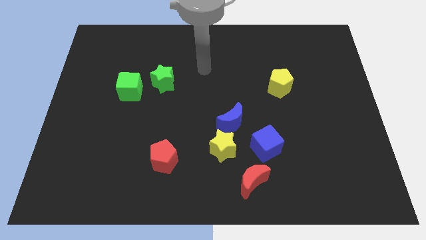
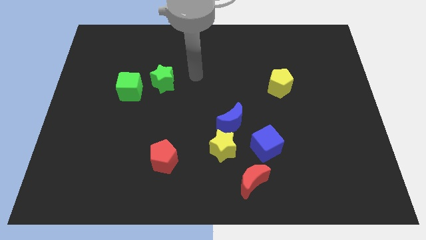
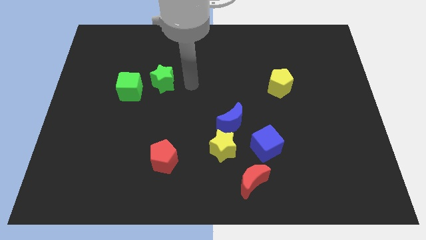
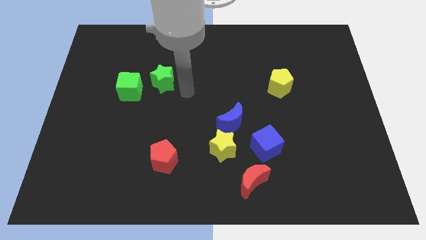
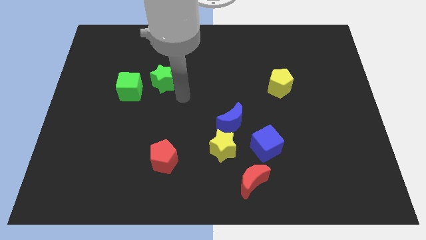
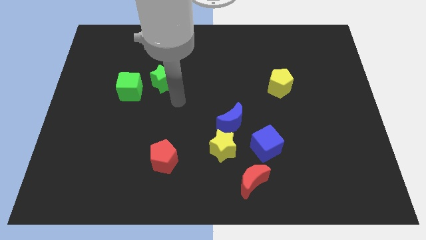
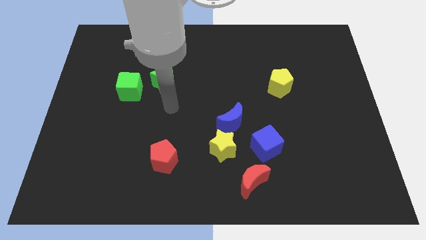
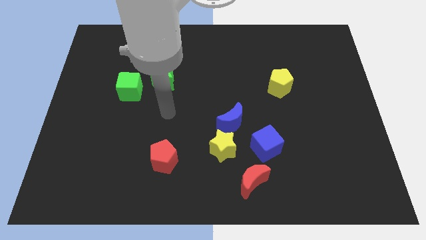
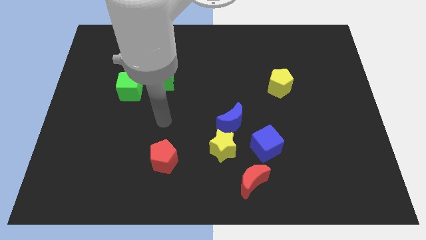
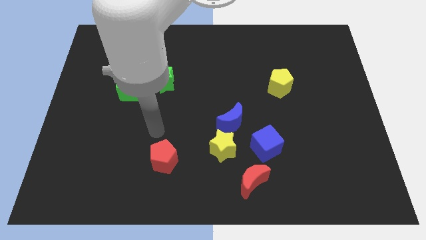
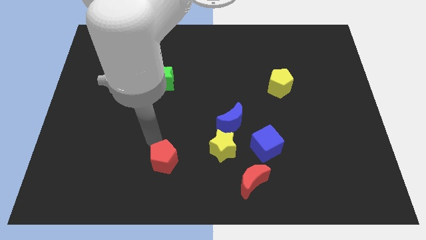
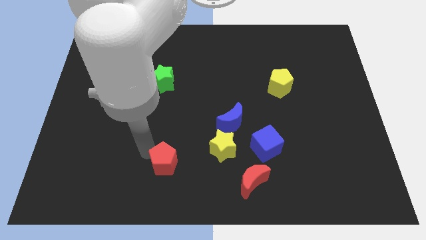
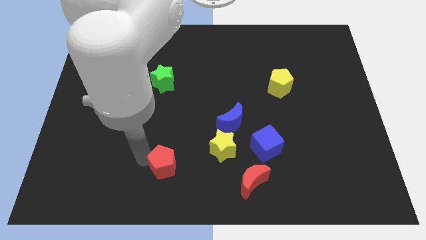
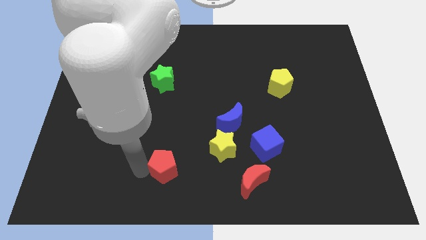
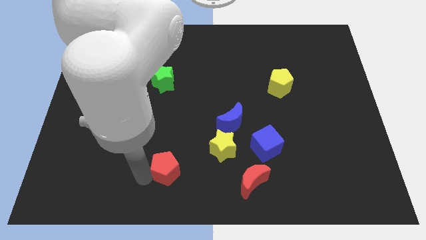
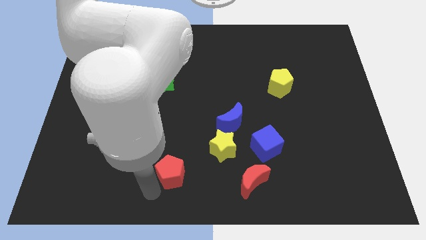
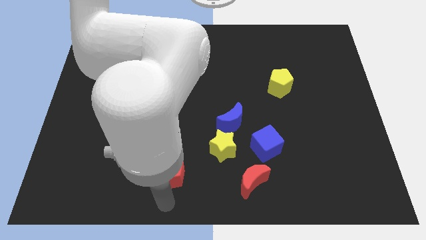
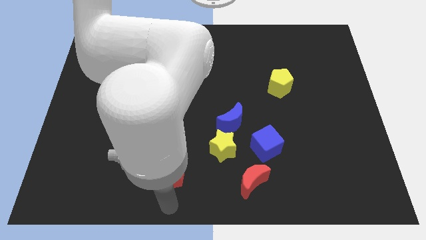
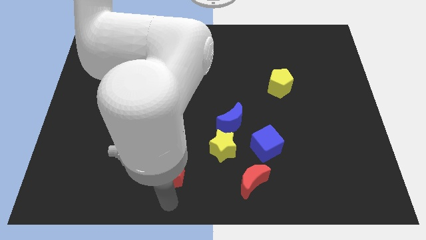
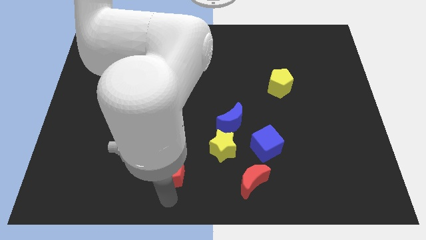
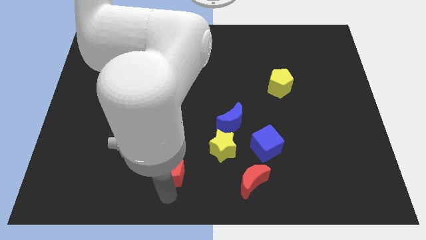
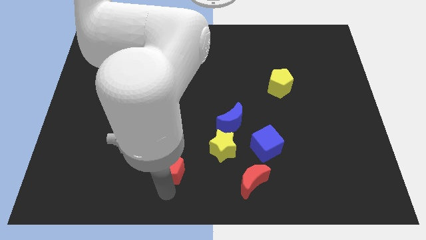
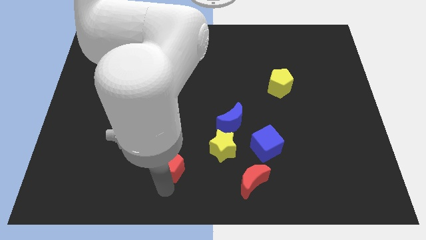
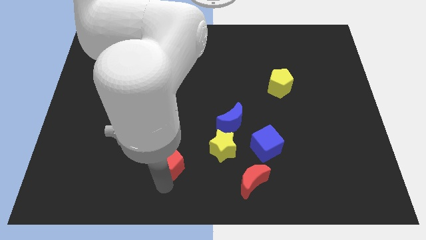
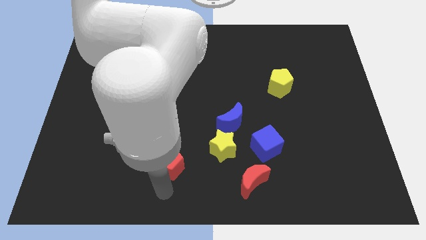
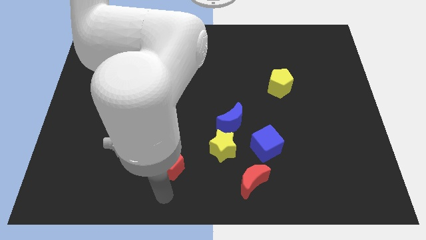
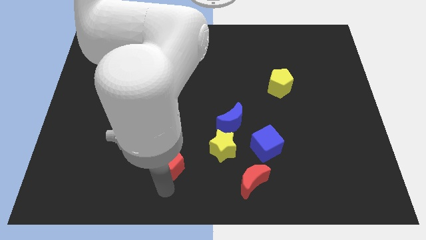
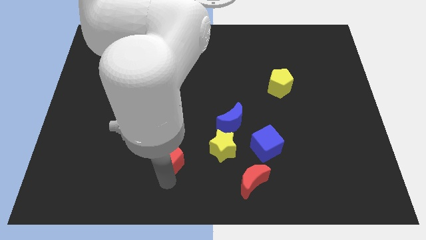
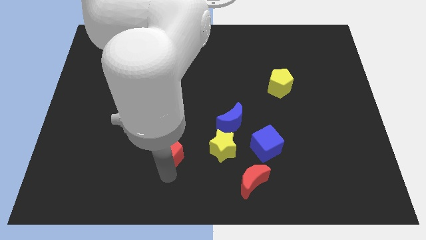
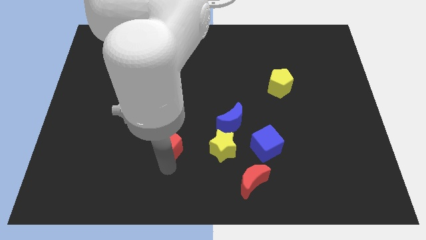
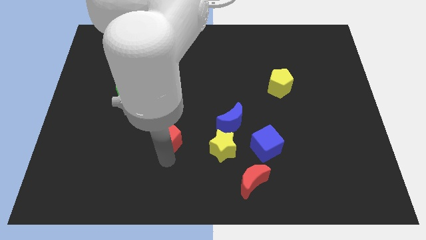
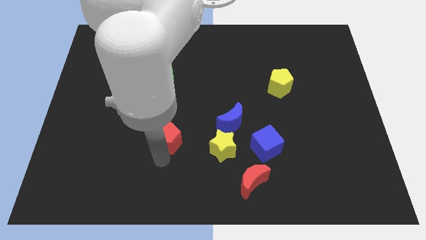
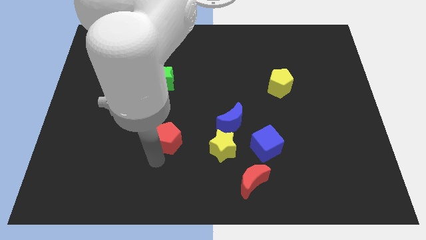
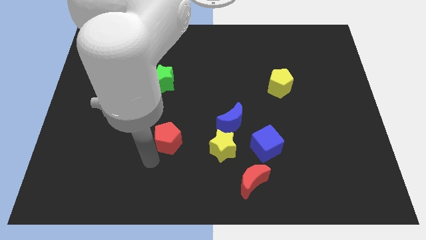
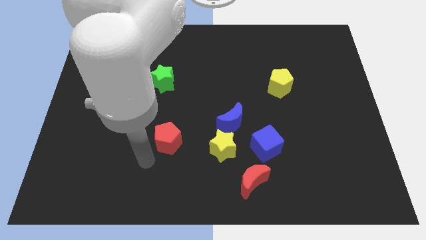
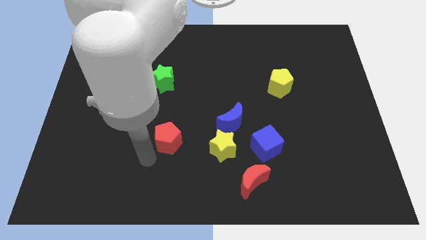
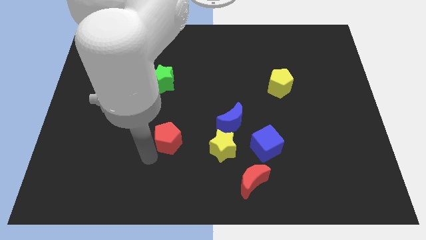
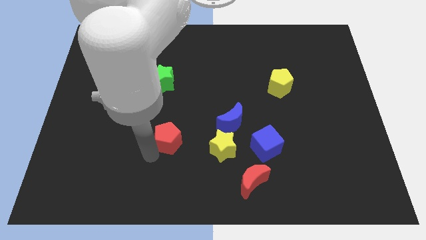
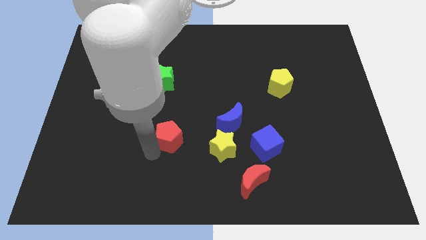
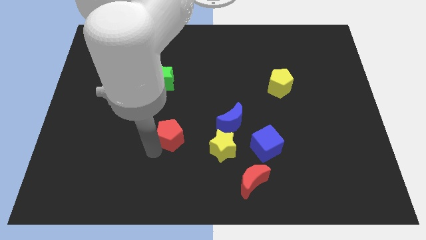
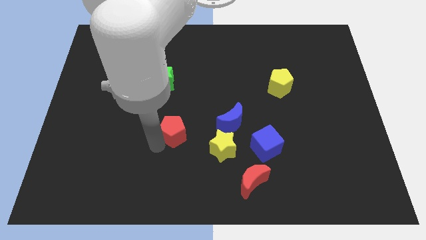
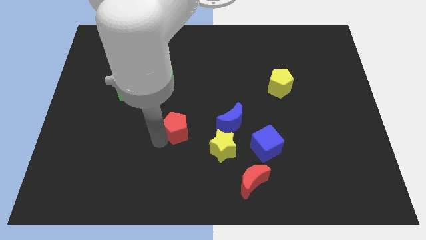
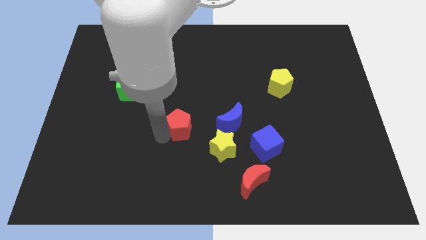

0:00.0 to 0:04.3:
slide the red pentagon up and then right a little bit

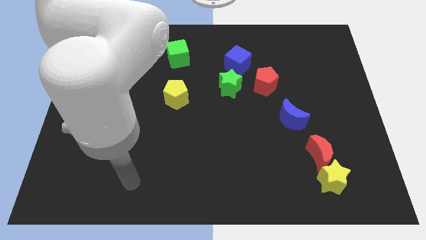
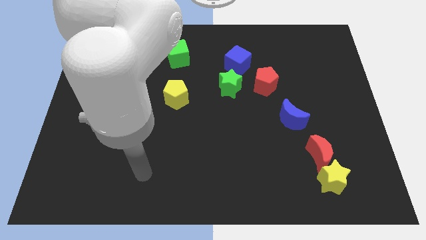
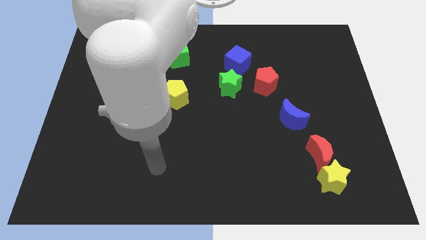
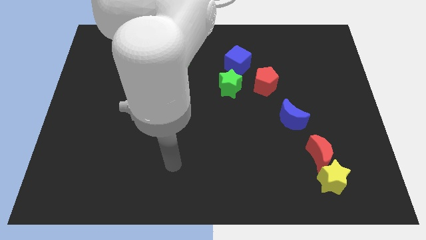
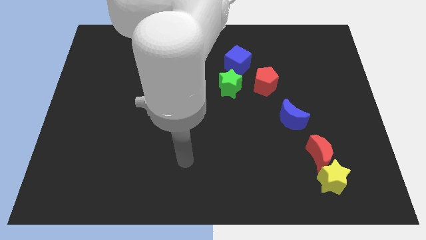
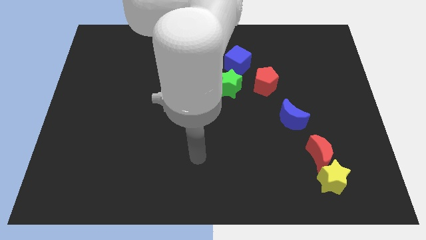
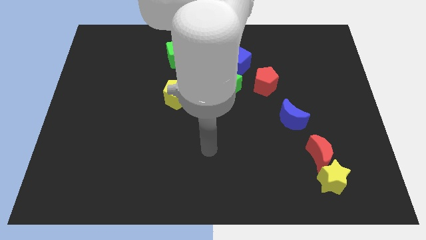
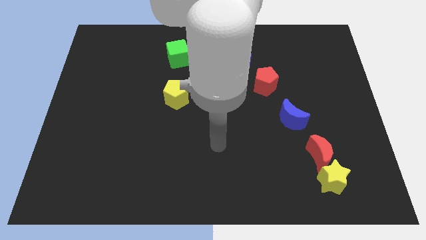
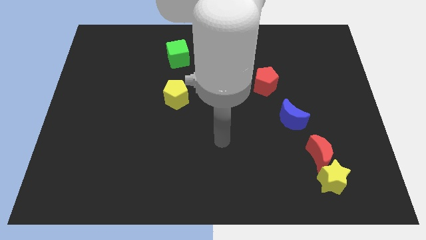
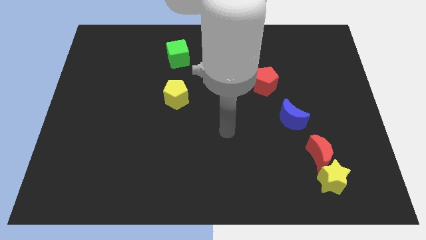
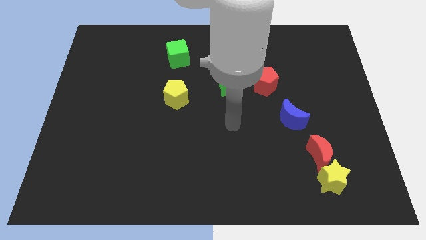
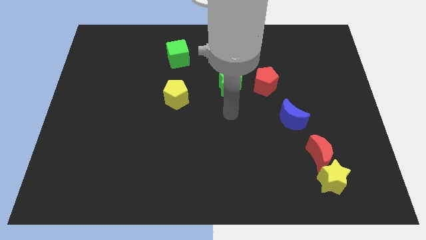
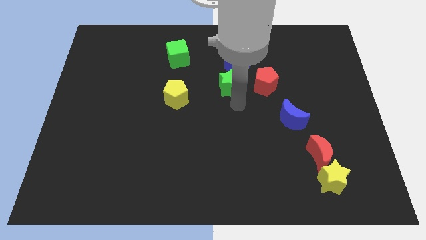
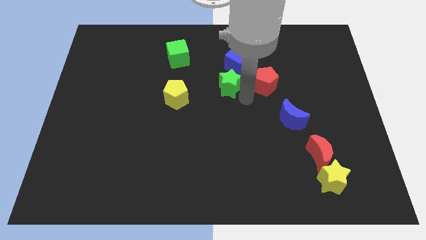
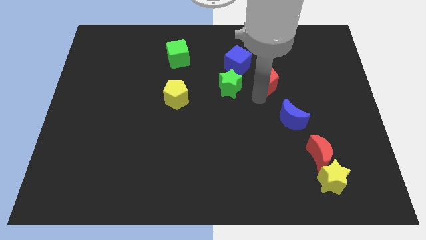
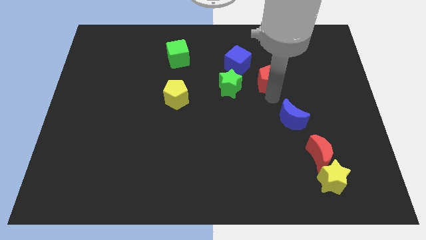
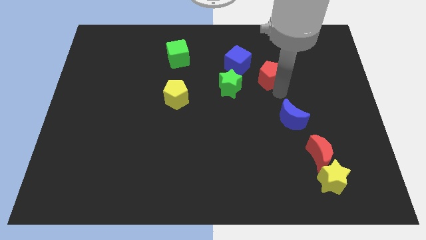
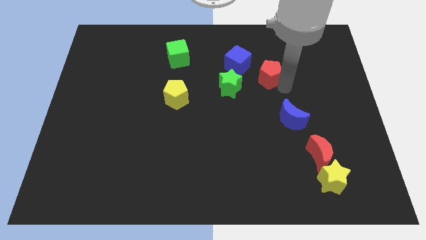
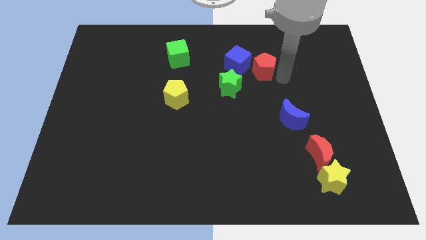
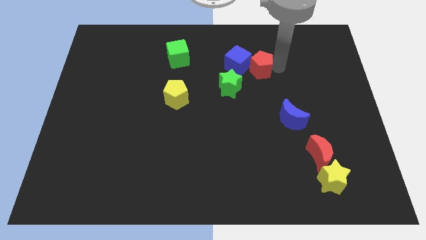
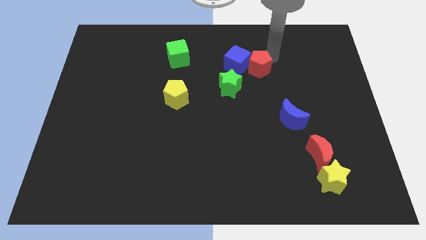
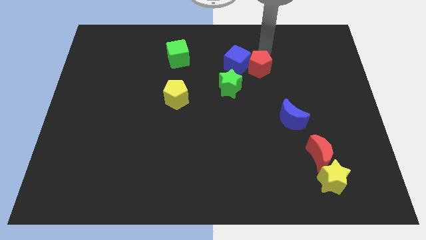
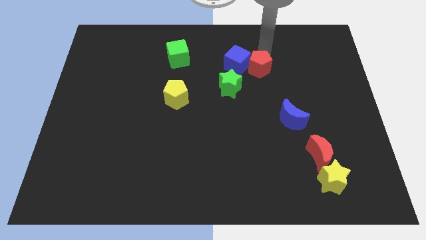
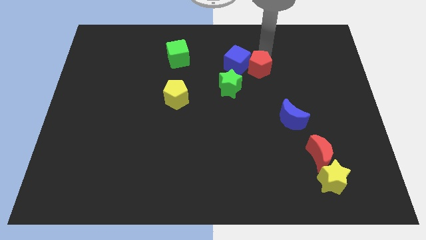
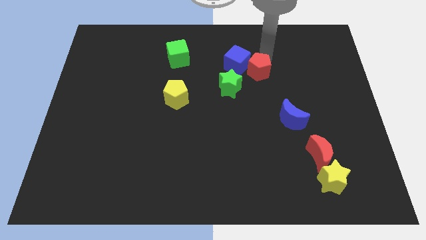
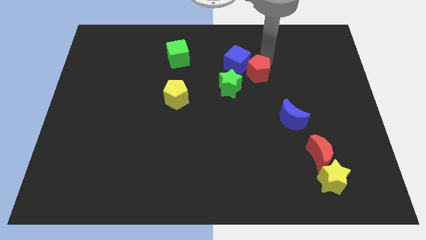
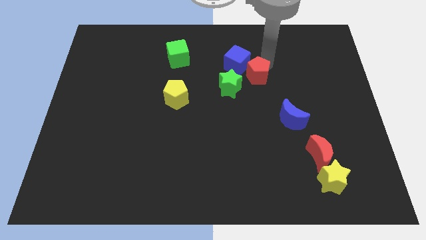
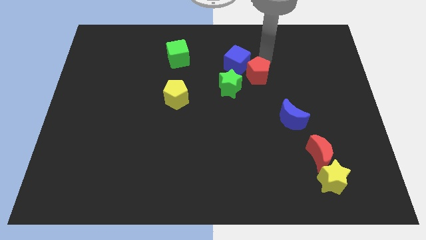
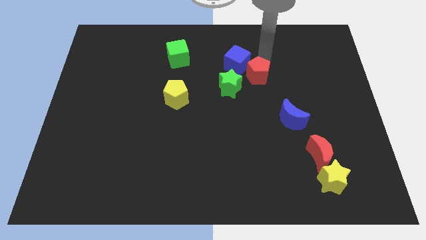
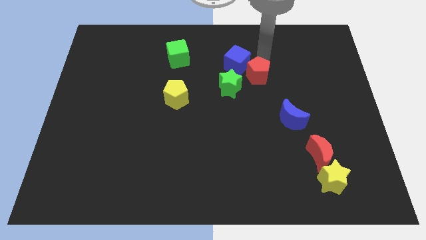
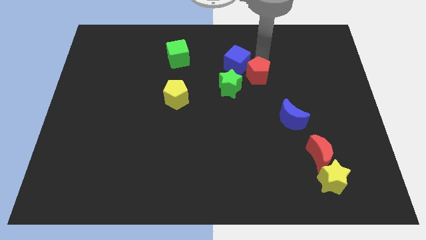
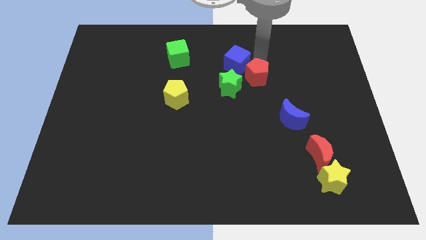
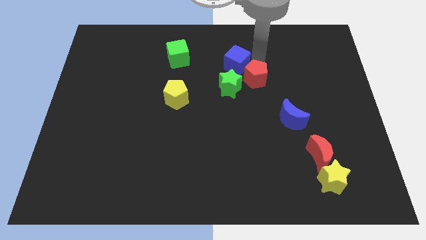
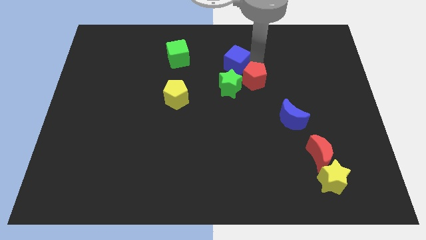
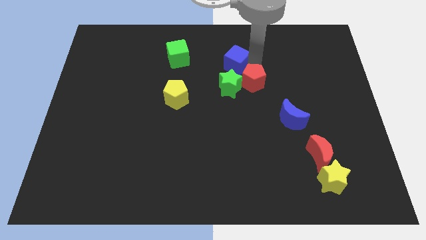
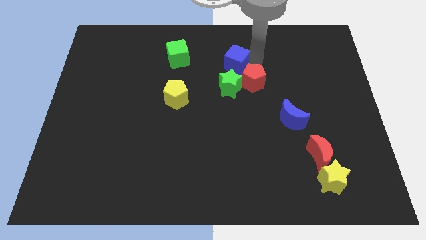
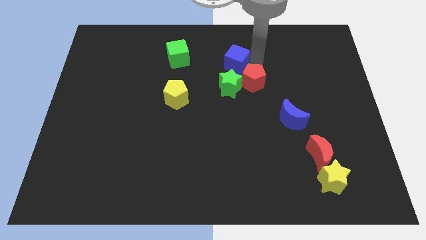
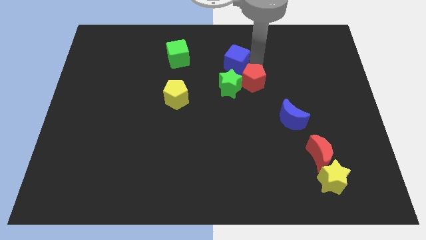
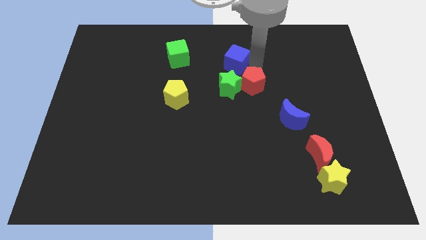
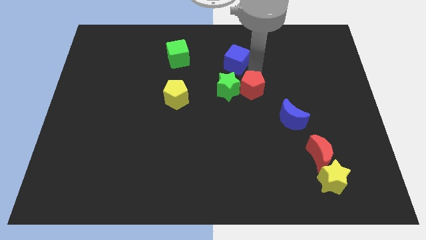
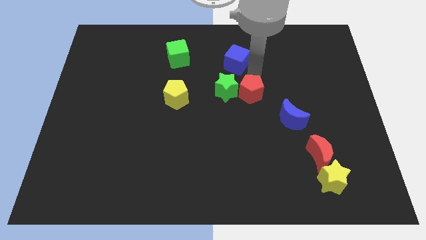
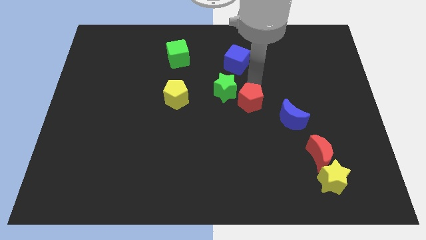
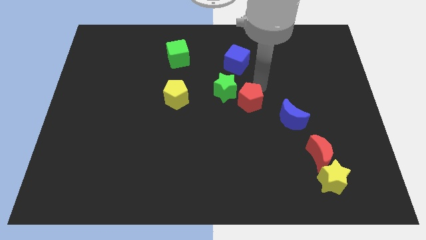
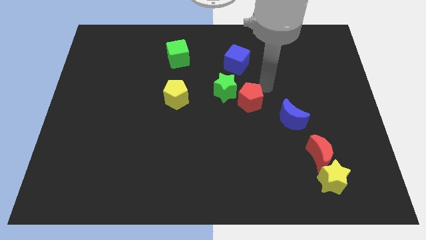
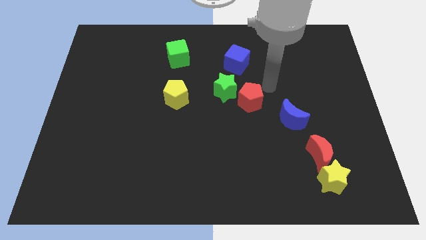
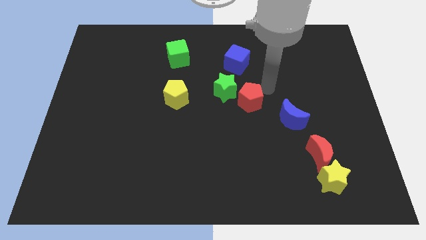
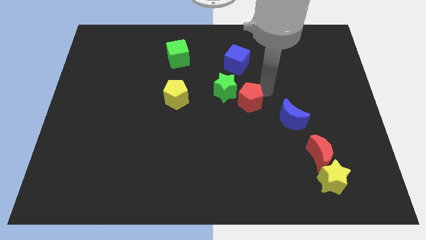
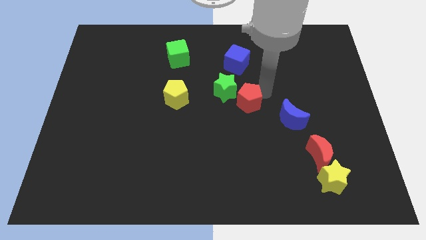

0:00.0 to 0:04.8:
slide the red pentagon a little downwards and then to the left
